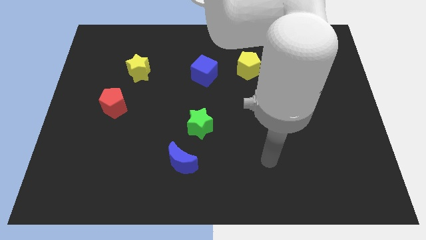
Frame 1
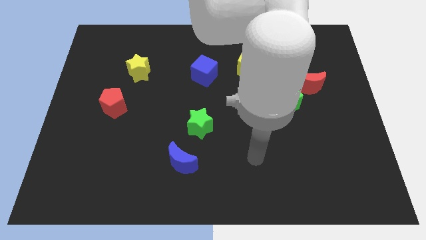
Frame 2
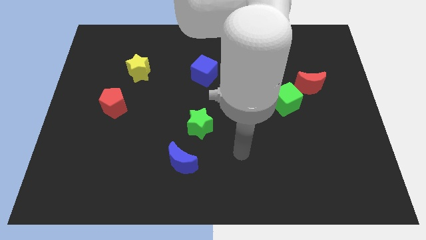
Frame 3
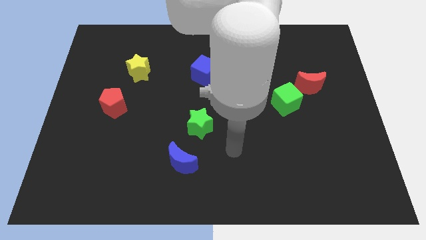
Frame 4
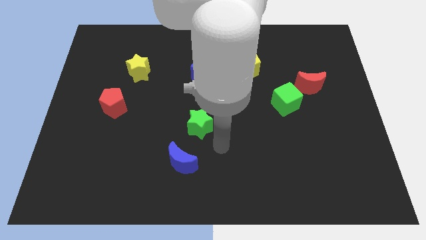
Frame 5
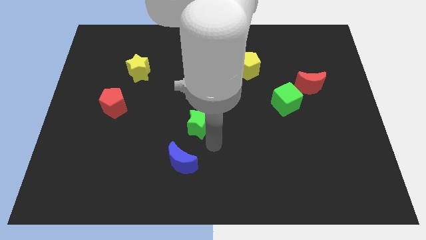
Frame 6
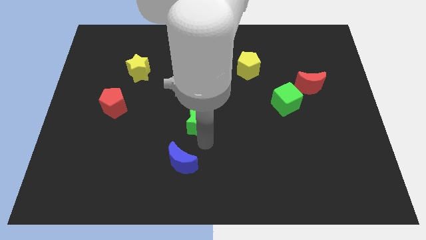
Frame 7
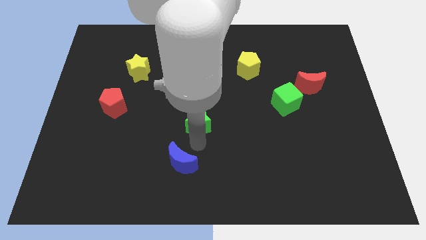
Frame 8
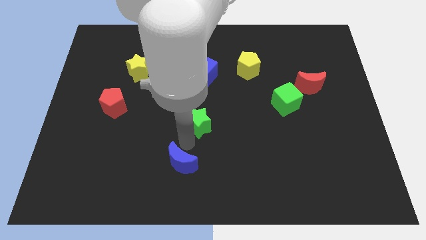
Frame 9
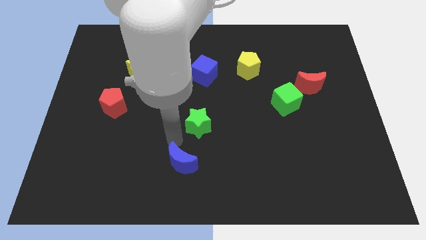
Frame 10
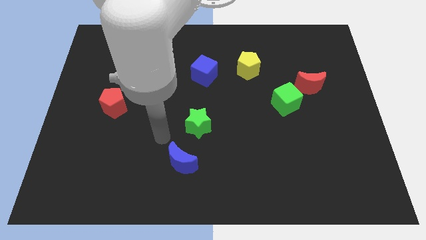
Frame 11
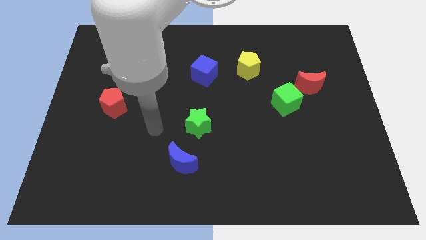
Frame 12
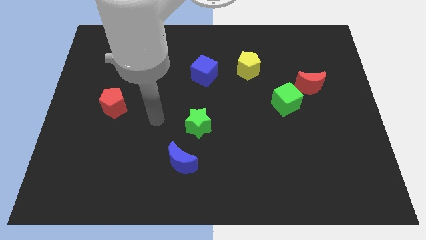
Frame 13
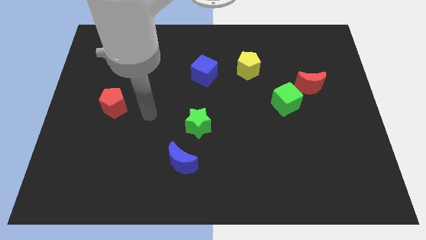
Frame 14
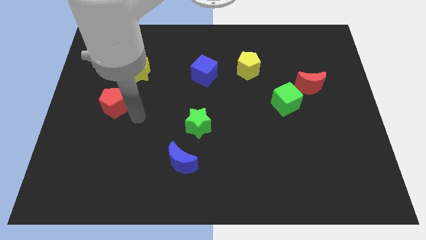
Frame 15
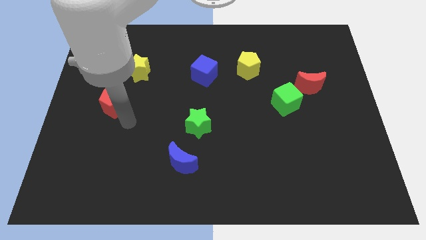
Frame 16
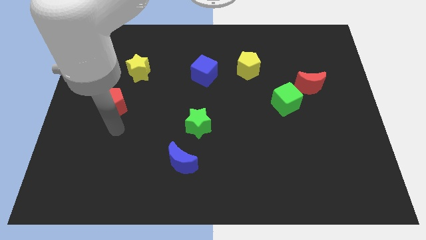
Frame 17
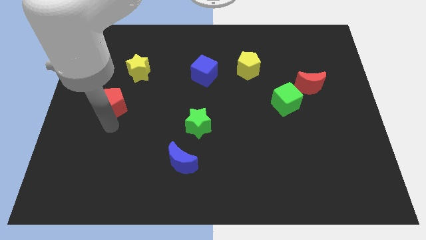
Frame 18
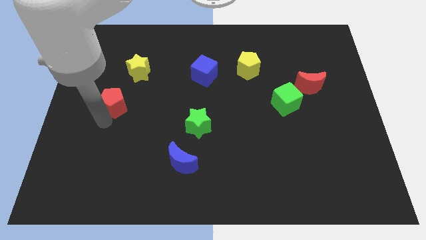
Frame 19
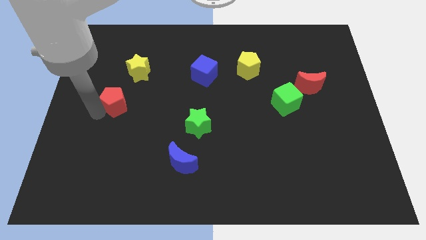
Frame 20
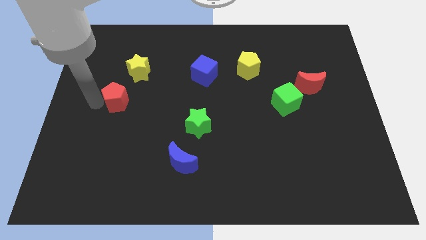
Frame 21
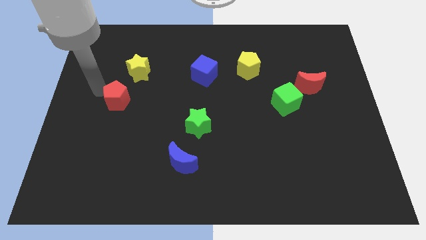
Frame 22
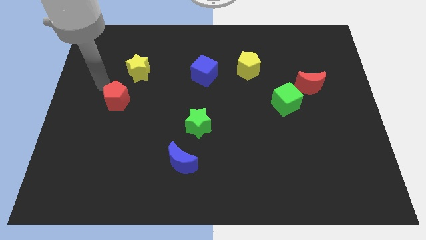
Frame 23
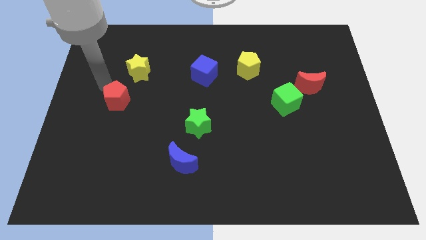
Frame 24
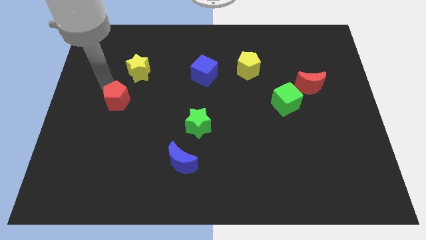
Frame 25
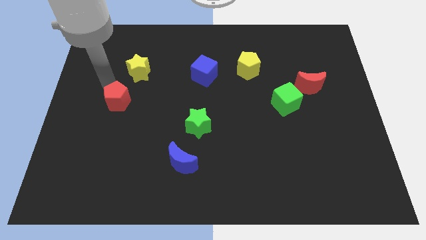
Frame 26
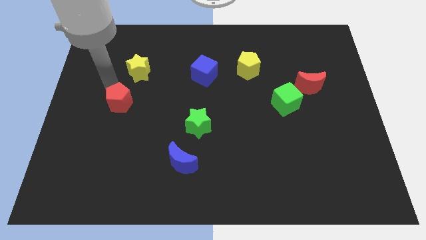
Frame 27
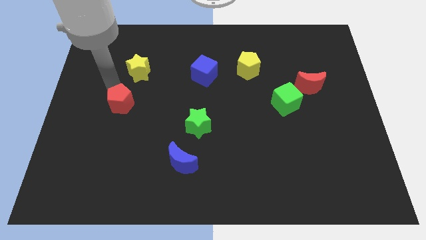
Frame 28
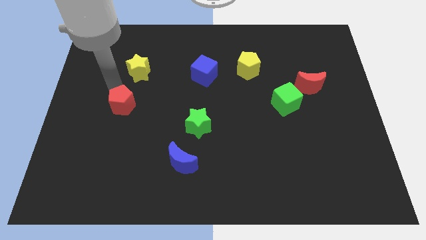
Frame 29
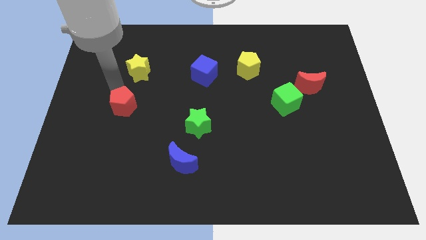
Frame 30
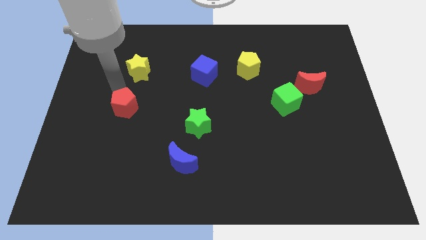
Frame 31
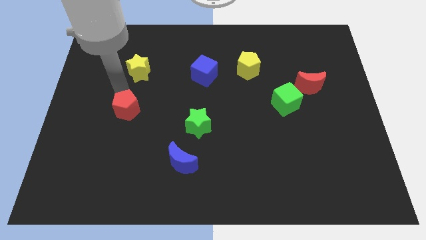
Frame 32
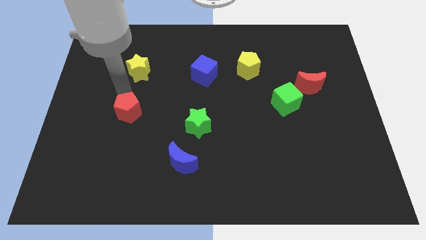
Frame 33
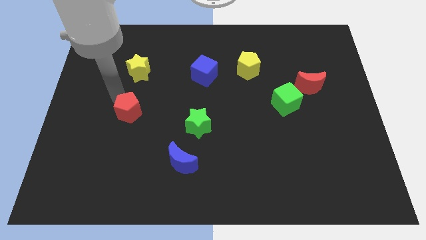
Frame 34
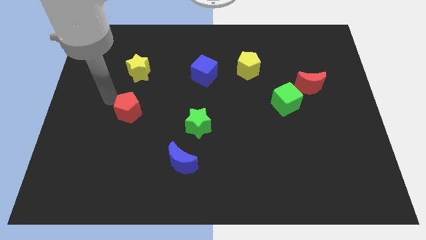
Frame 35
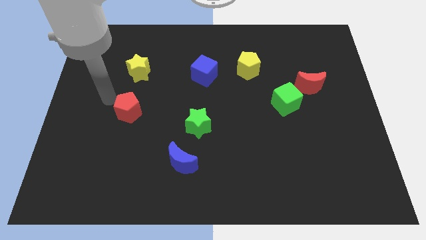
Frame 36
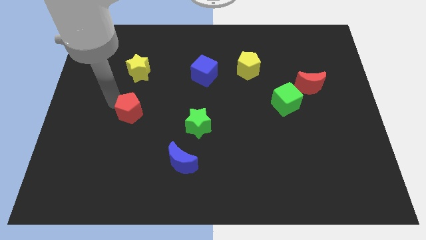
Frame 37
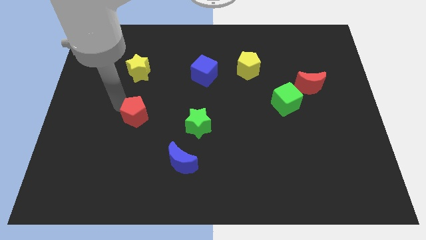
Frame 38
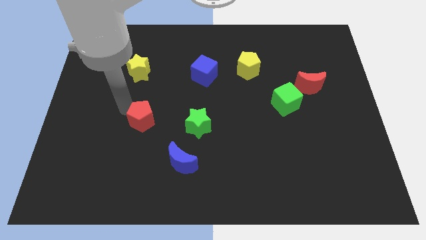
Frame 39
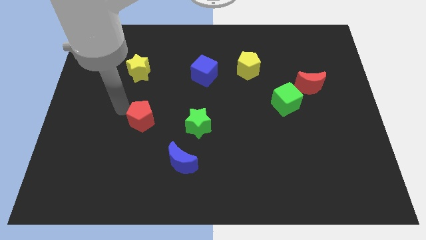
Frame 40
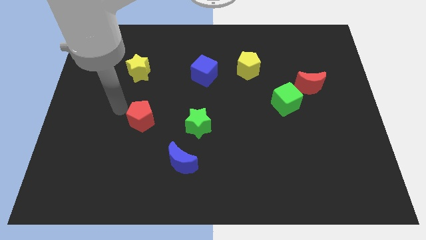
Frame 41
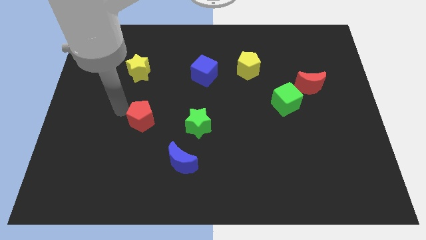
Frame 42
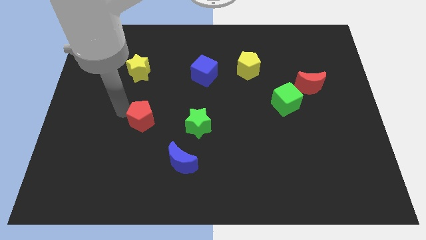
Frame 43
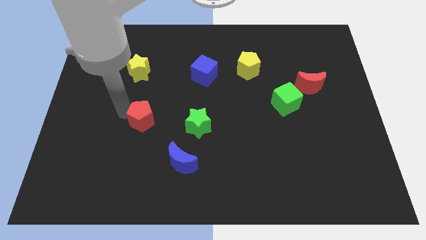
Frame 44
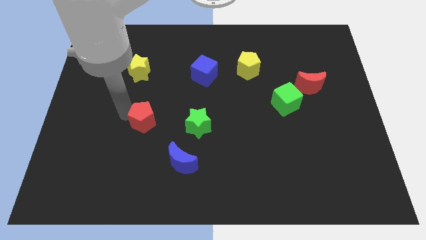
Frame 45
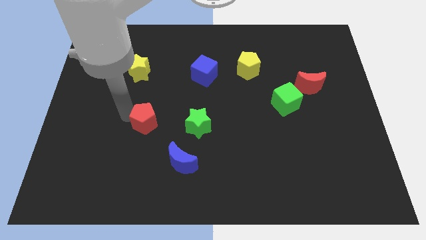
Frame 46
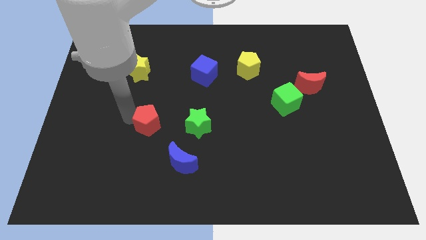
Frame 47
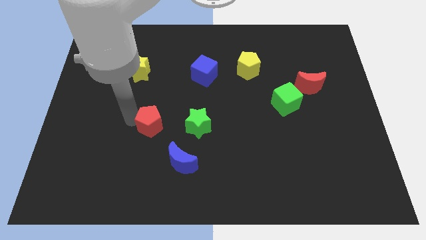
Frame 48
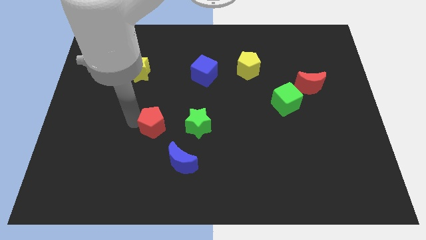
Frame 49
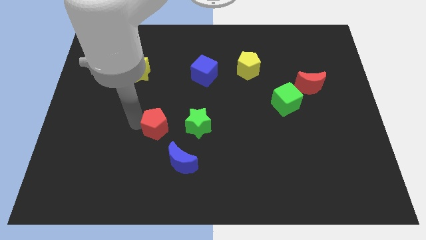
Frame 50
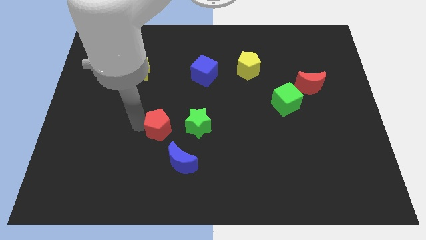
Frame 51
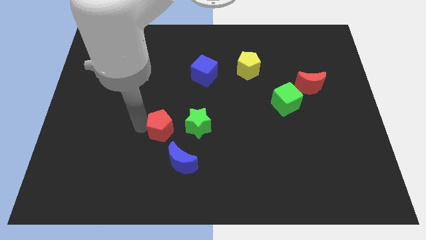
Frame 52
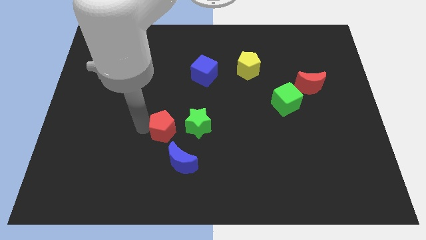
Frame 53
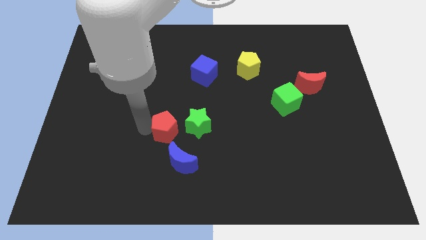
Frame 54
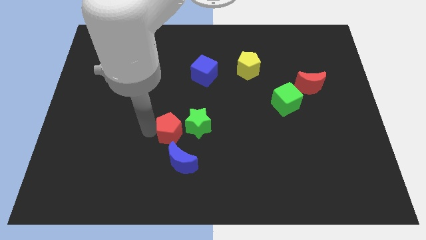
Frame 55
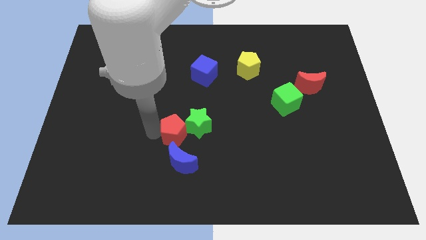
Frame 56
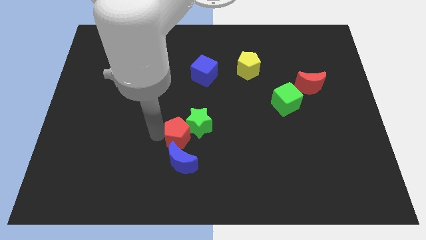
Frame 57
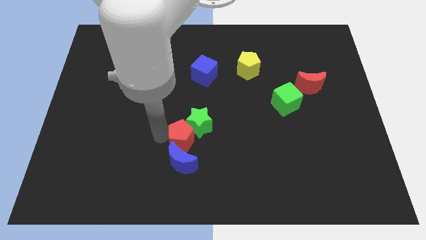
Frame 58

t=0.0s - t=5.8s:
move the red pentagon to the bottom of the green star

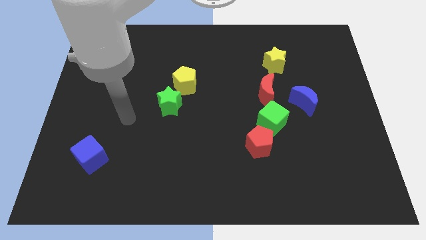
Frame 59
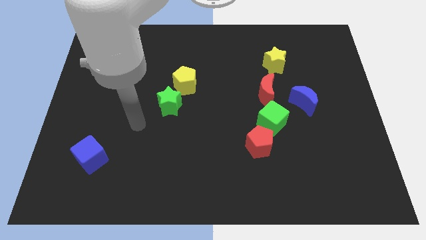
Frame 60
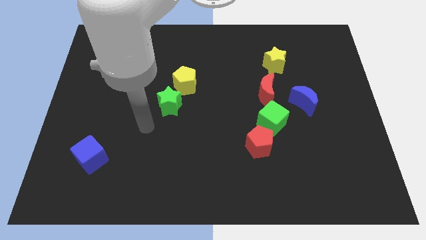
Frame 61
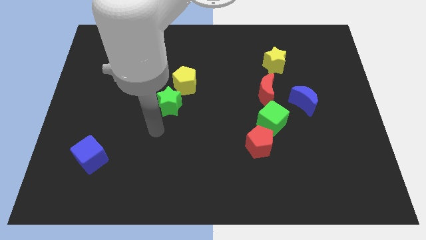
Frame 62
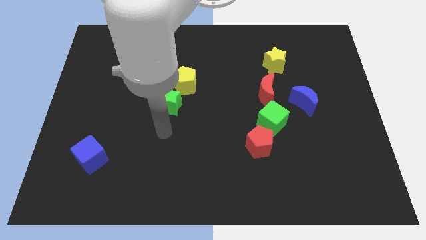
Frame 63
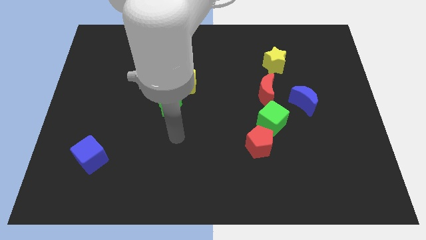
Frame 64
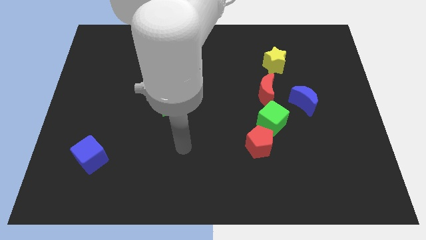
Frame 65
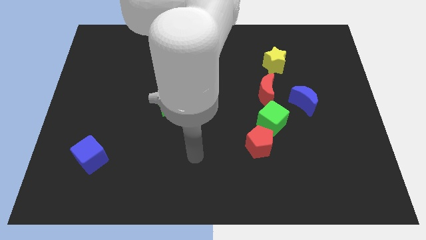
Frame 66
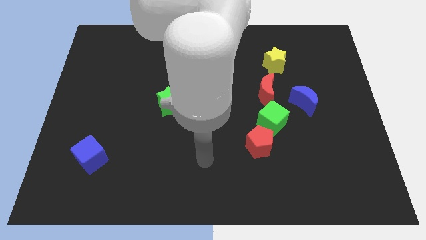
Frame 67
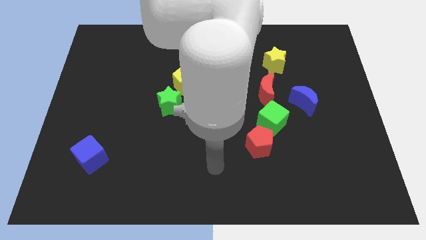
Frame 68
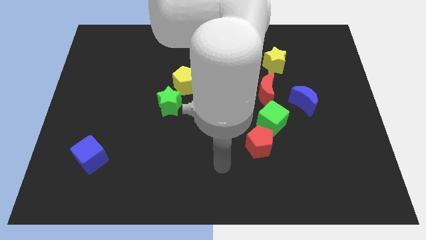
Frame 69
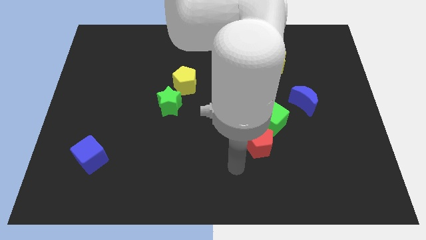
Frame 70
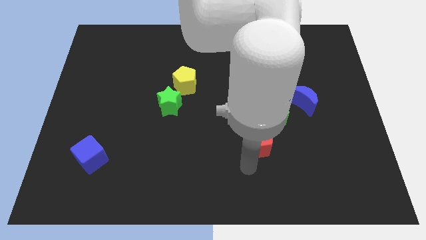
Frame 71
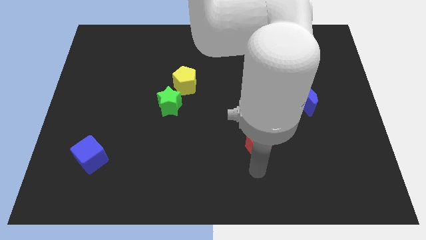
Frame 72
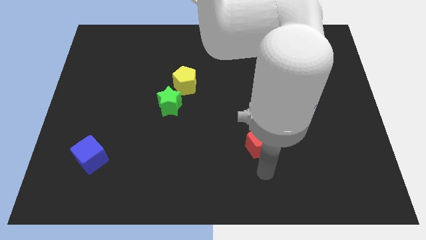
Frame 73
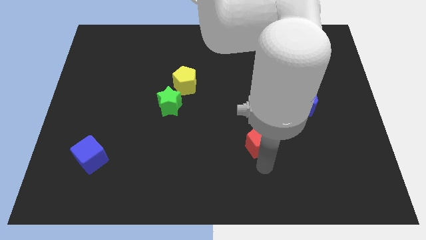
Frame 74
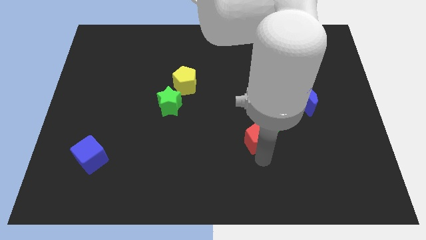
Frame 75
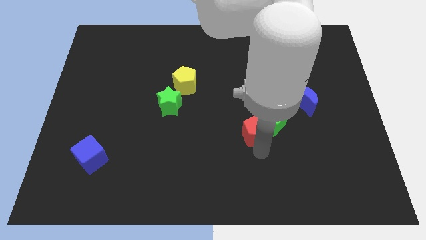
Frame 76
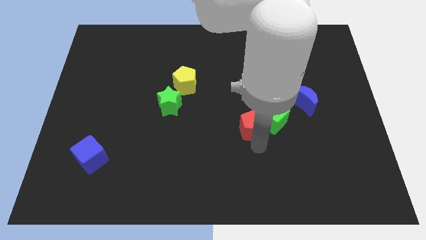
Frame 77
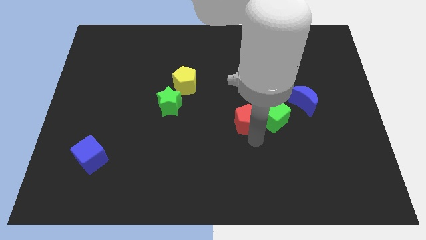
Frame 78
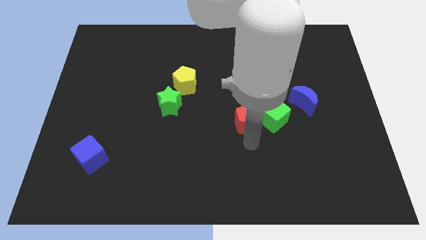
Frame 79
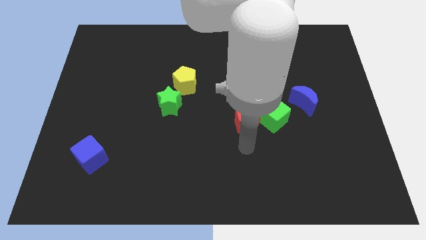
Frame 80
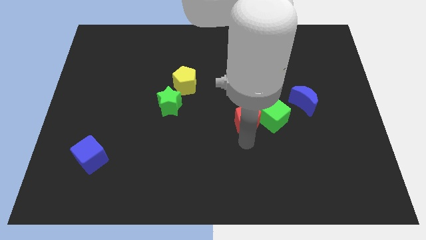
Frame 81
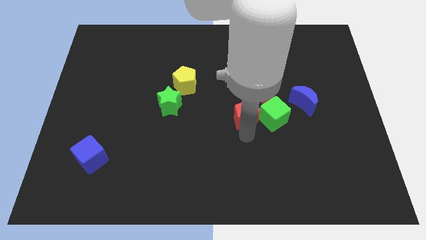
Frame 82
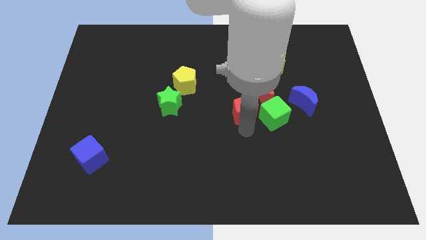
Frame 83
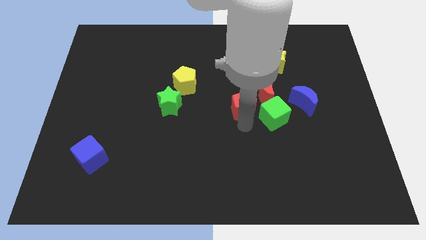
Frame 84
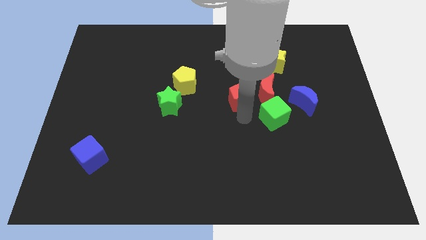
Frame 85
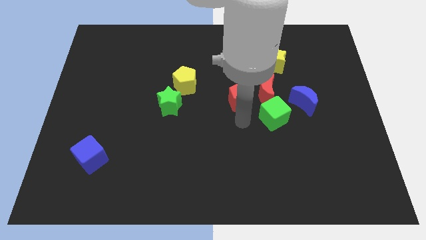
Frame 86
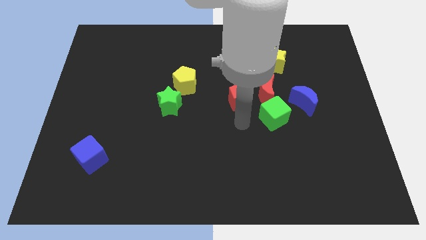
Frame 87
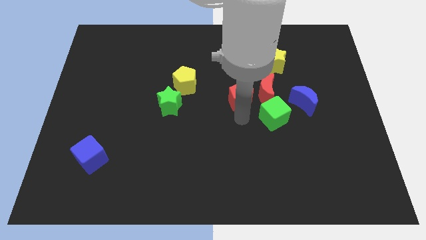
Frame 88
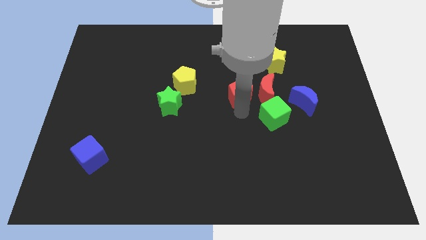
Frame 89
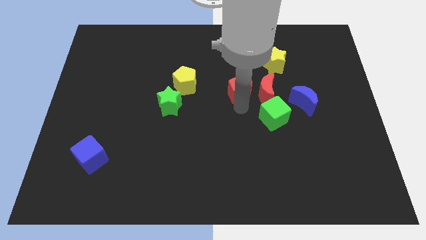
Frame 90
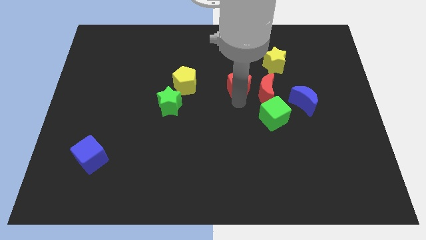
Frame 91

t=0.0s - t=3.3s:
move the red pentagon diagonally down and to the left of the yellow star
